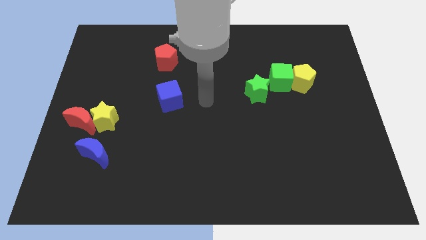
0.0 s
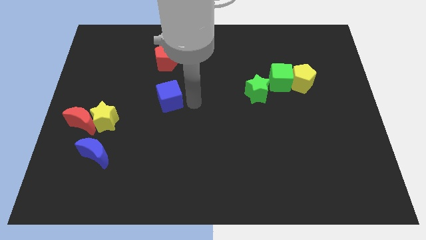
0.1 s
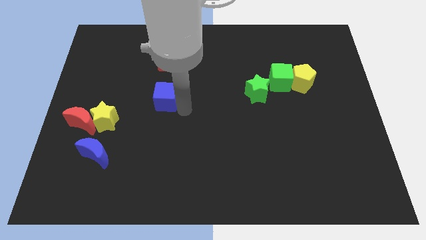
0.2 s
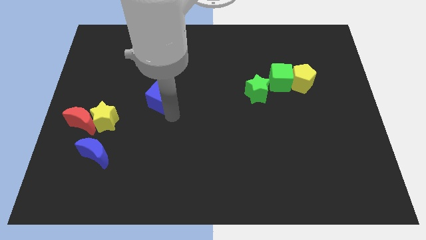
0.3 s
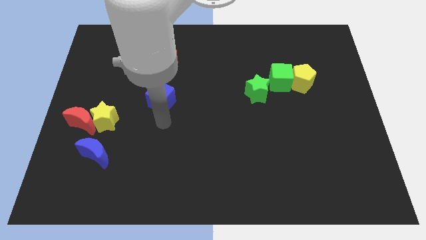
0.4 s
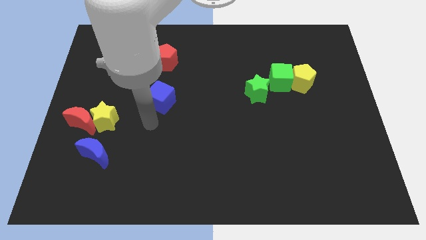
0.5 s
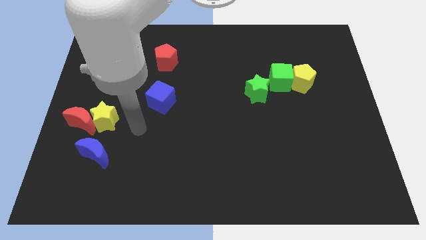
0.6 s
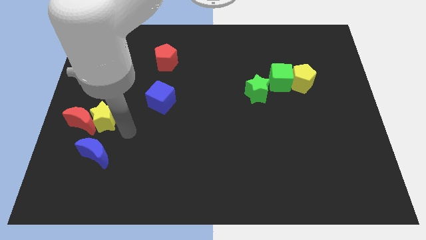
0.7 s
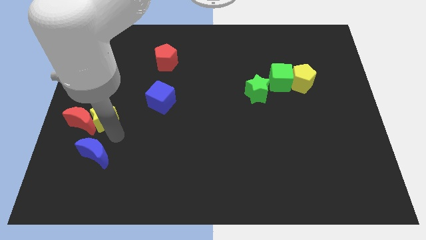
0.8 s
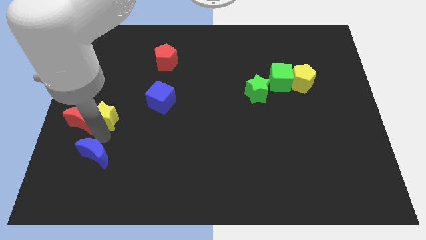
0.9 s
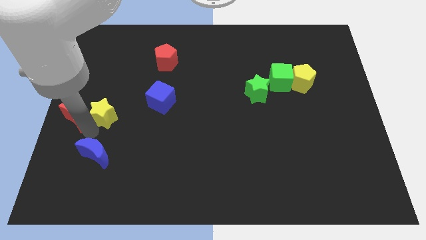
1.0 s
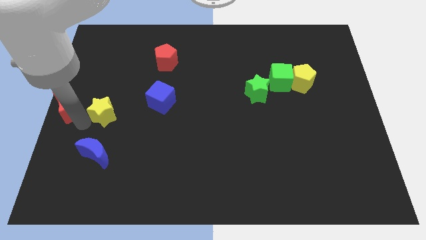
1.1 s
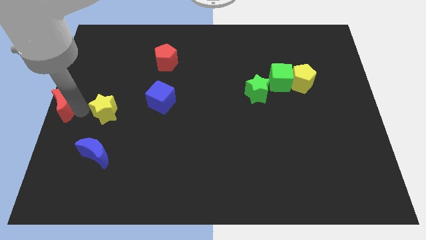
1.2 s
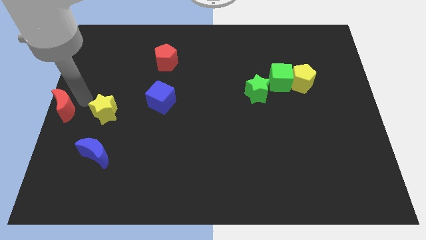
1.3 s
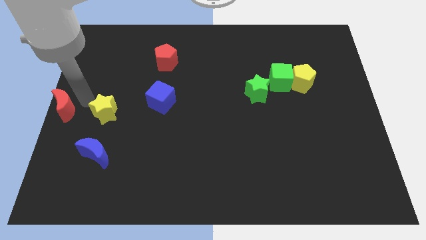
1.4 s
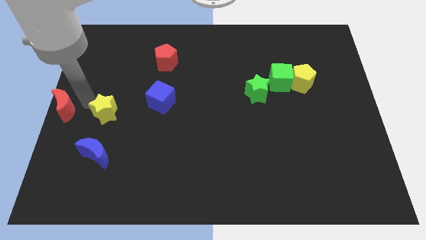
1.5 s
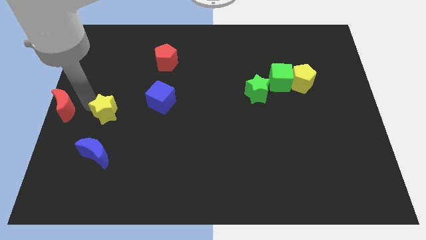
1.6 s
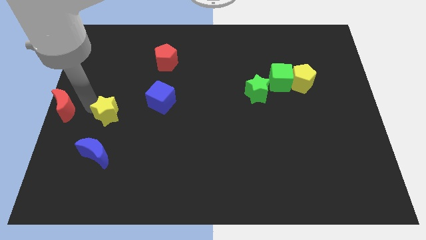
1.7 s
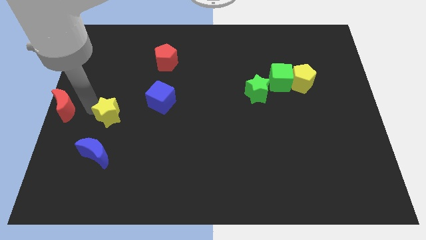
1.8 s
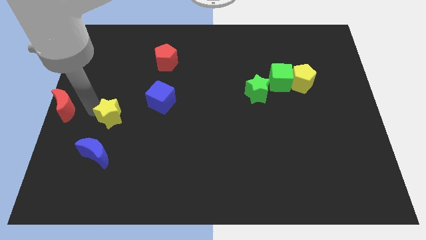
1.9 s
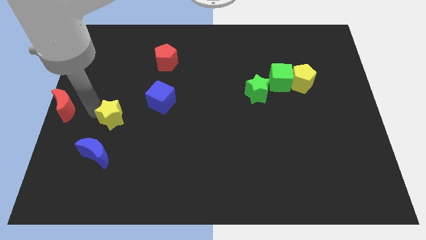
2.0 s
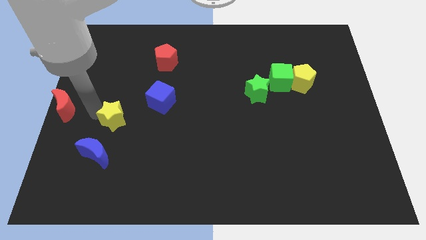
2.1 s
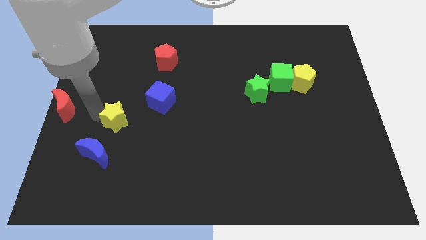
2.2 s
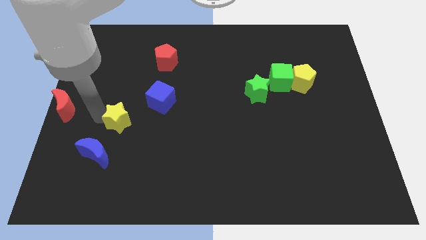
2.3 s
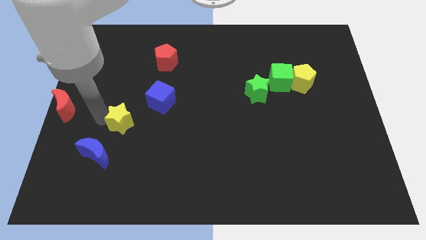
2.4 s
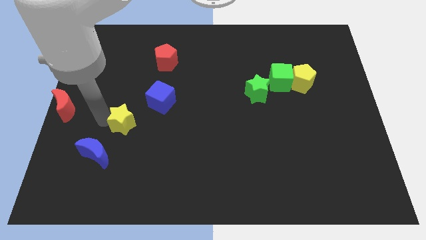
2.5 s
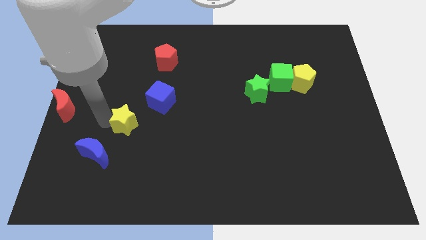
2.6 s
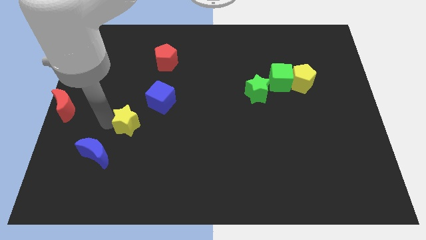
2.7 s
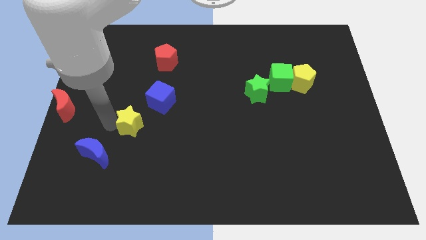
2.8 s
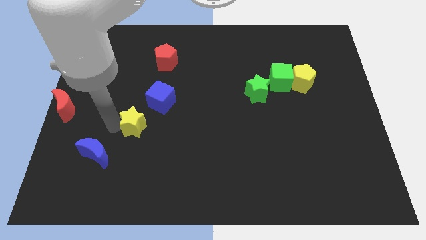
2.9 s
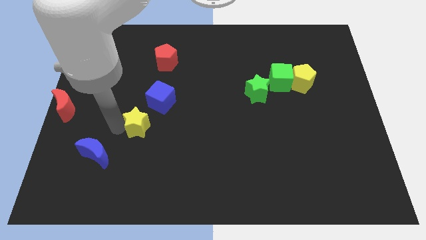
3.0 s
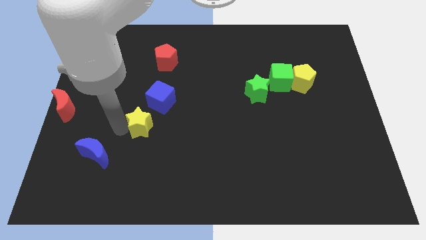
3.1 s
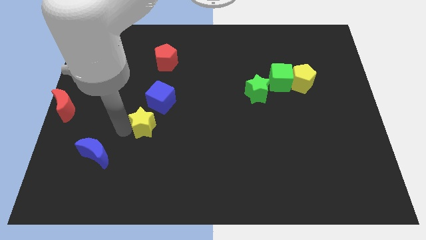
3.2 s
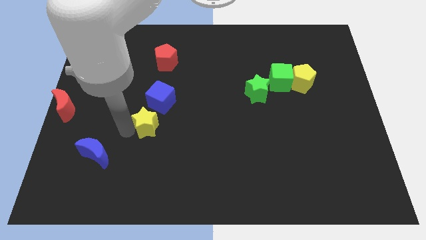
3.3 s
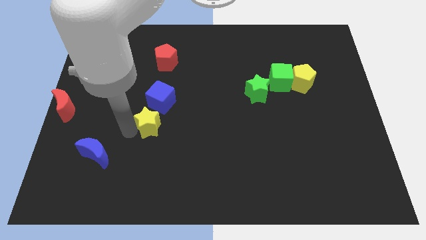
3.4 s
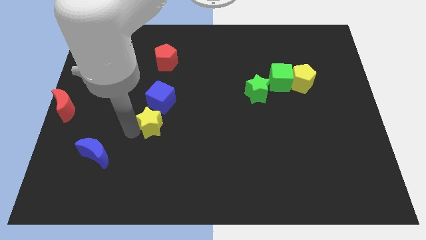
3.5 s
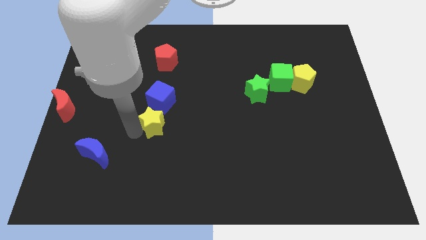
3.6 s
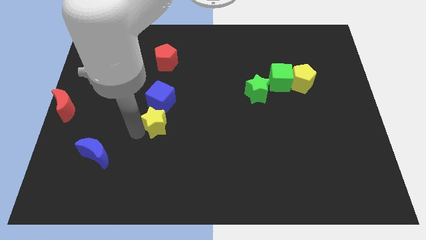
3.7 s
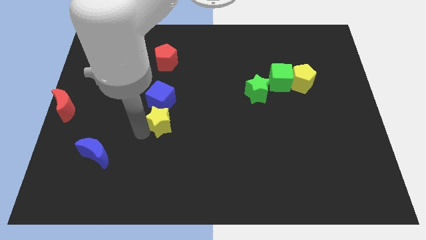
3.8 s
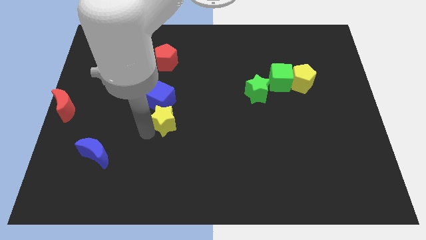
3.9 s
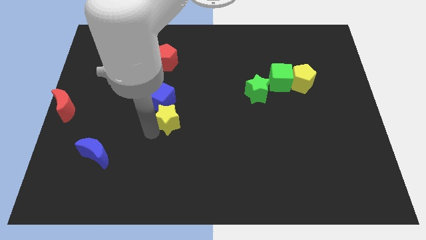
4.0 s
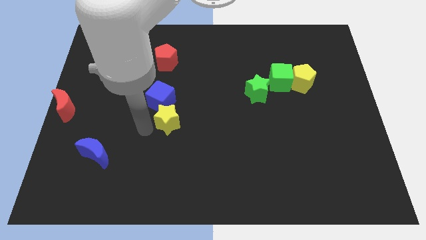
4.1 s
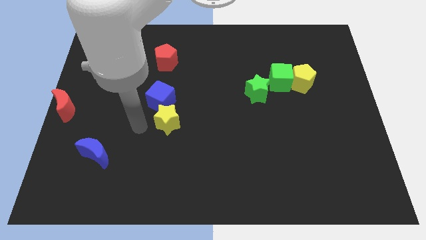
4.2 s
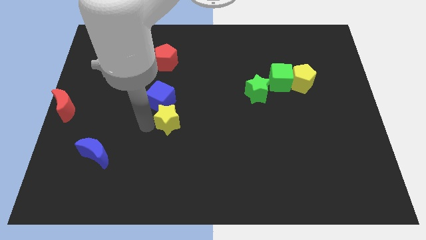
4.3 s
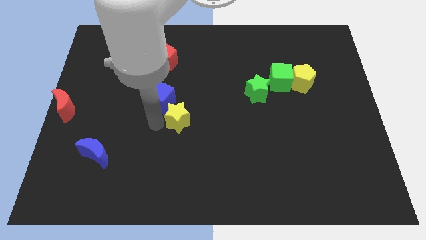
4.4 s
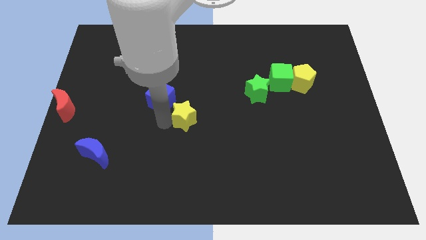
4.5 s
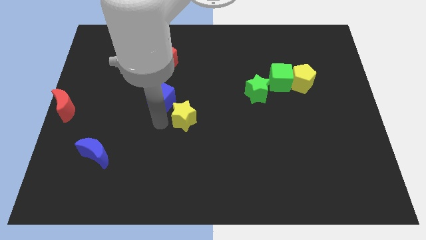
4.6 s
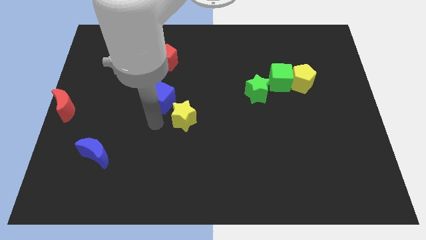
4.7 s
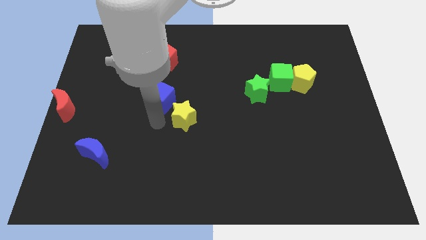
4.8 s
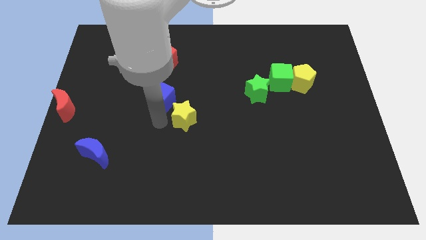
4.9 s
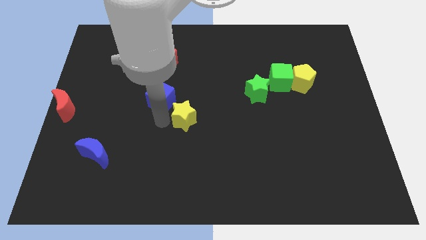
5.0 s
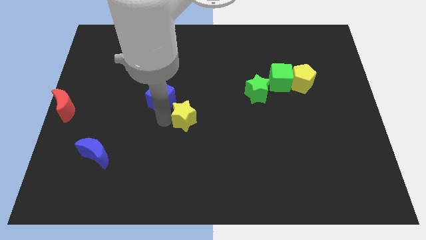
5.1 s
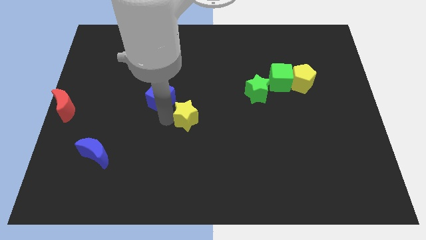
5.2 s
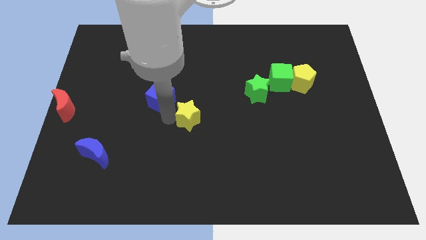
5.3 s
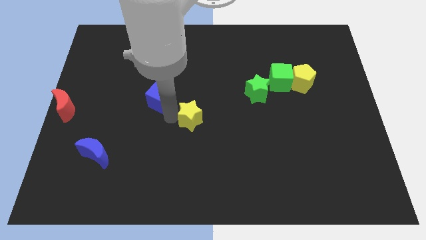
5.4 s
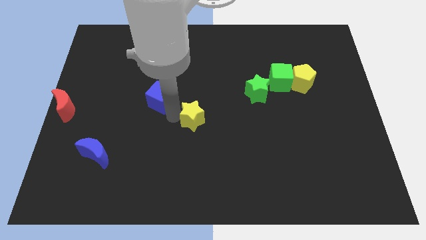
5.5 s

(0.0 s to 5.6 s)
move the yellow star right

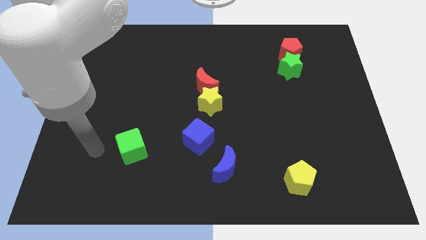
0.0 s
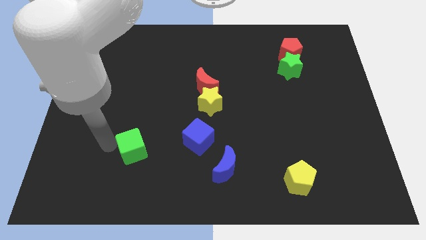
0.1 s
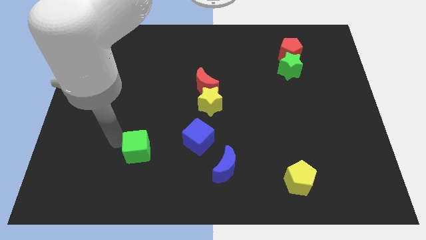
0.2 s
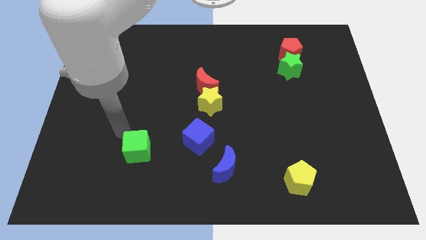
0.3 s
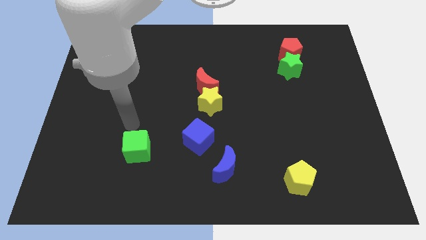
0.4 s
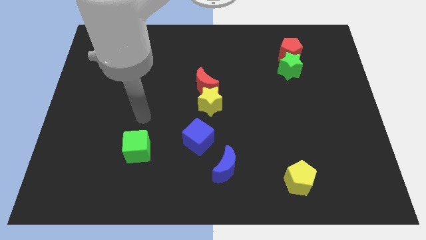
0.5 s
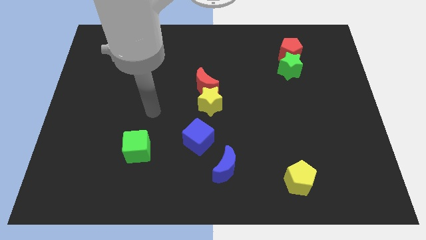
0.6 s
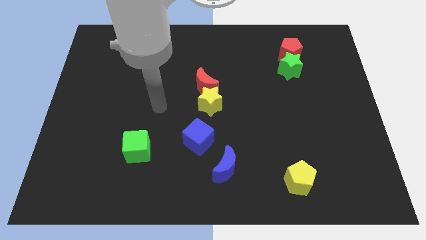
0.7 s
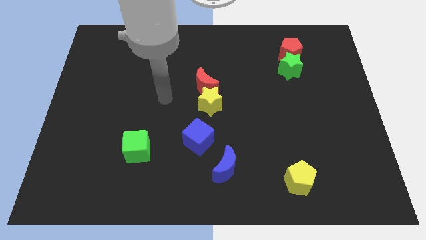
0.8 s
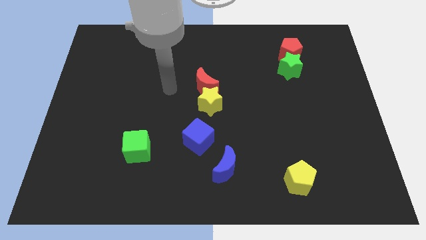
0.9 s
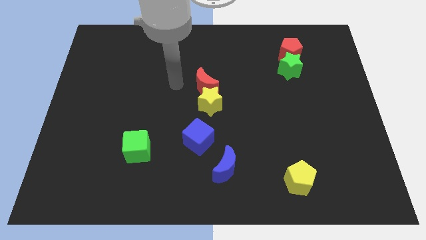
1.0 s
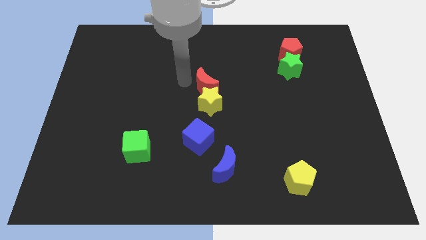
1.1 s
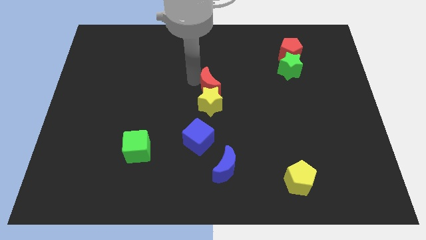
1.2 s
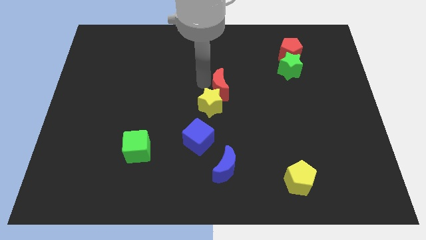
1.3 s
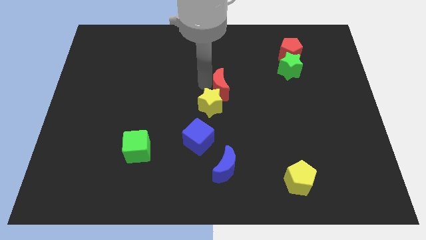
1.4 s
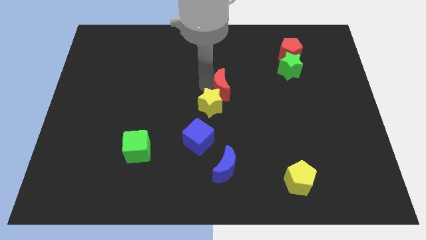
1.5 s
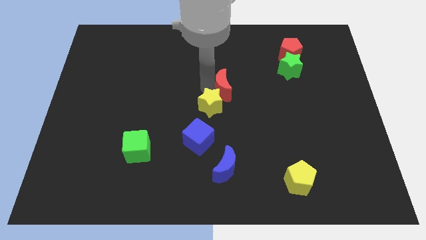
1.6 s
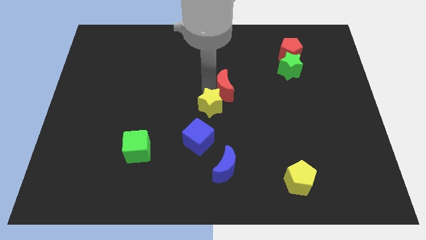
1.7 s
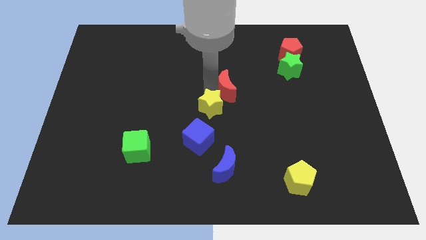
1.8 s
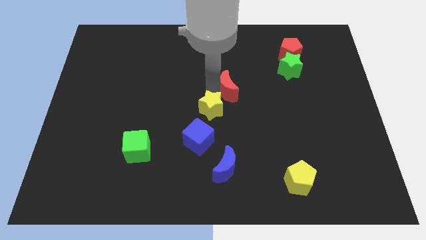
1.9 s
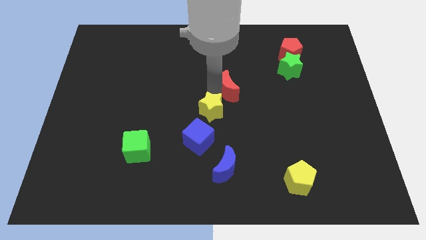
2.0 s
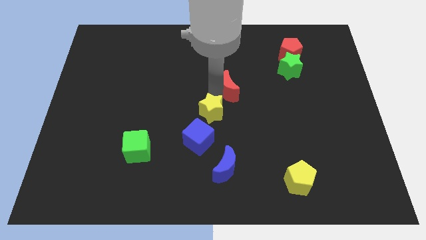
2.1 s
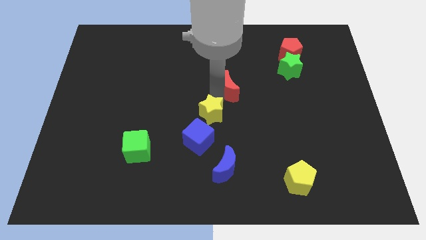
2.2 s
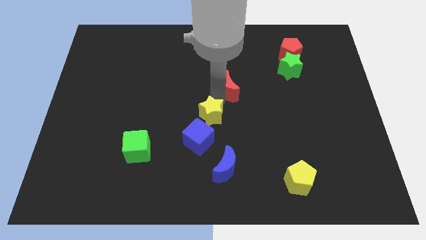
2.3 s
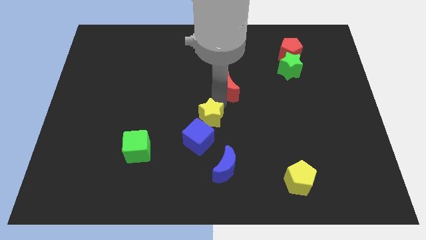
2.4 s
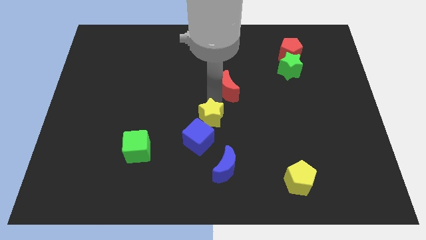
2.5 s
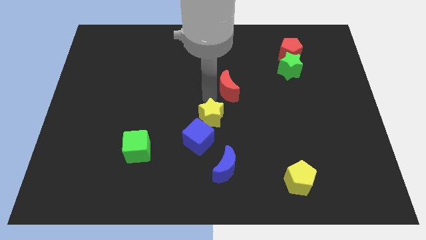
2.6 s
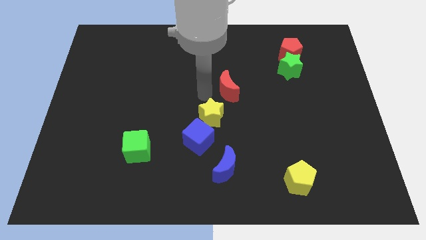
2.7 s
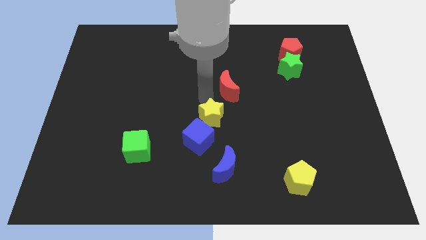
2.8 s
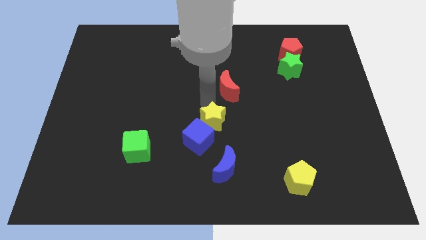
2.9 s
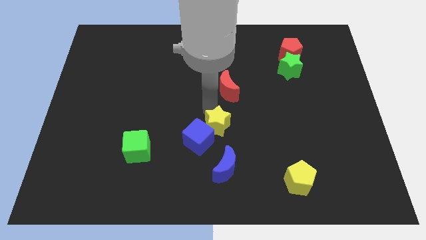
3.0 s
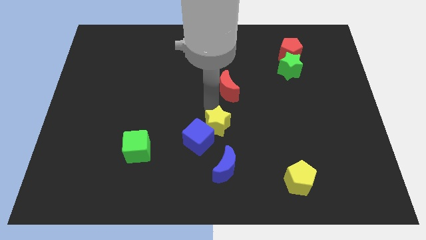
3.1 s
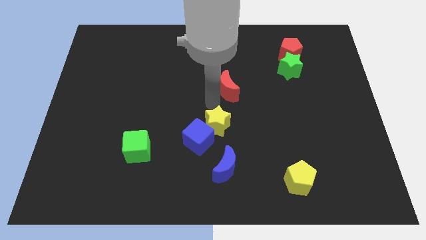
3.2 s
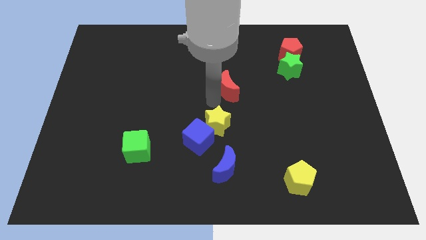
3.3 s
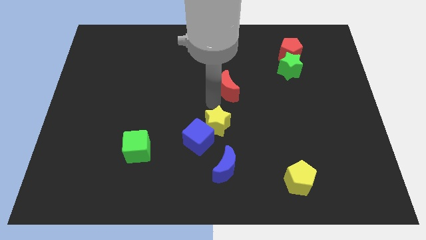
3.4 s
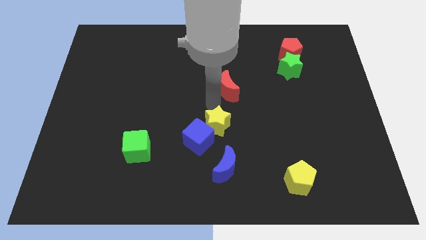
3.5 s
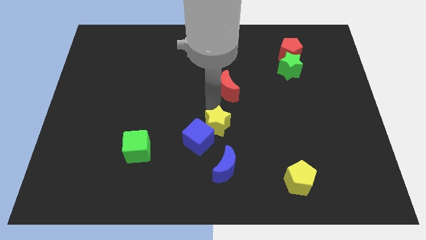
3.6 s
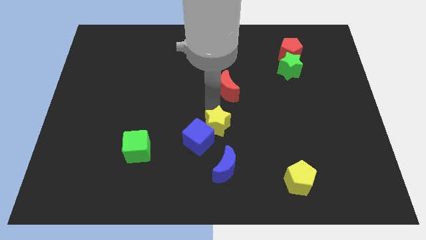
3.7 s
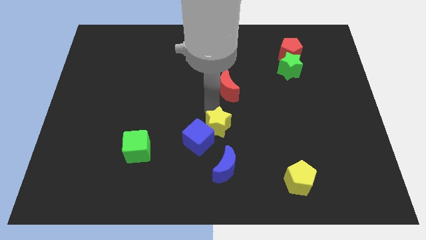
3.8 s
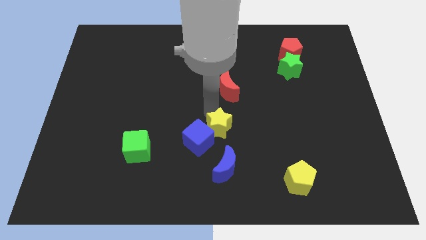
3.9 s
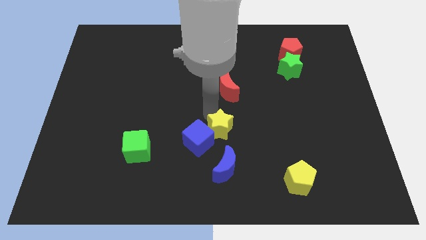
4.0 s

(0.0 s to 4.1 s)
slide the yellow star downwards a little
